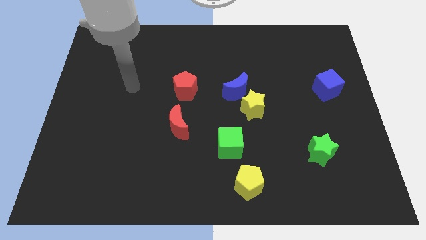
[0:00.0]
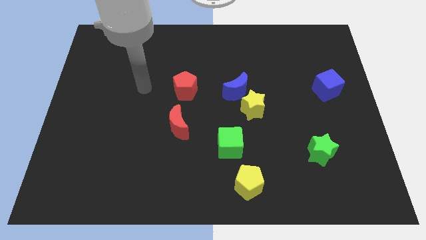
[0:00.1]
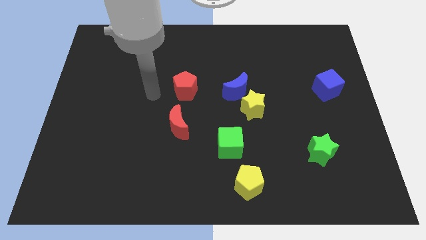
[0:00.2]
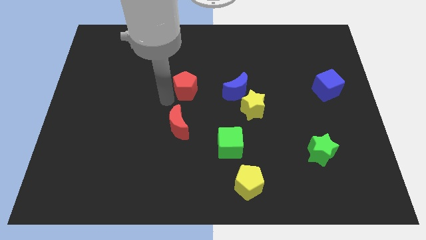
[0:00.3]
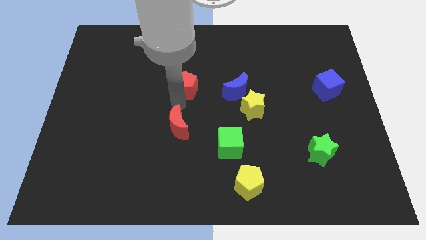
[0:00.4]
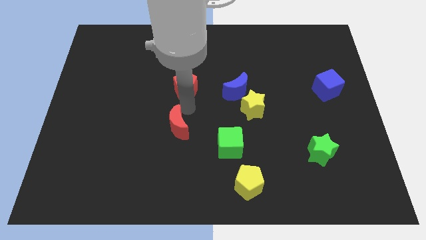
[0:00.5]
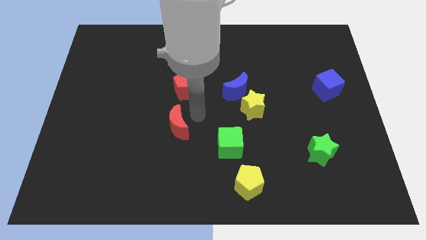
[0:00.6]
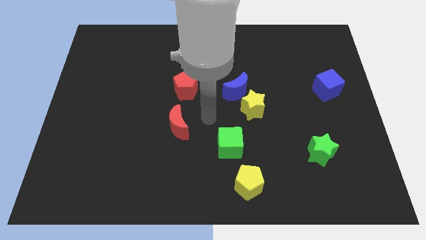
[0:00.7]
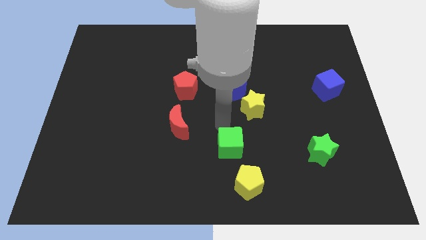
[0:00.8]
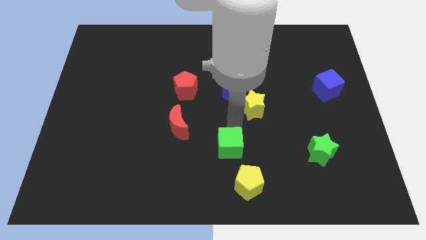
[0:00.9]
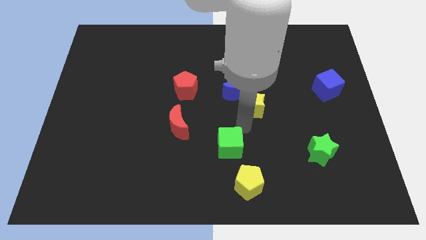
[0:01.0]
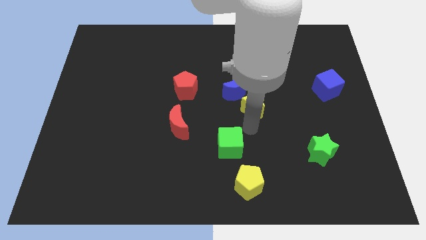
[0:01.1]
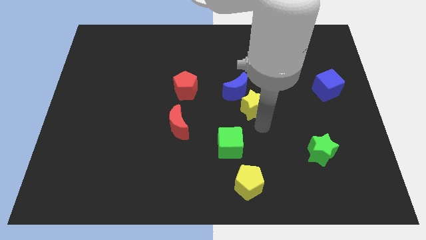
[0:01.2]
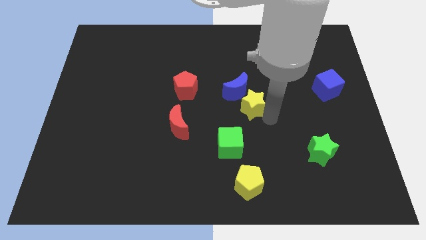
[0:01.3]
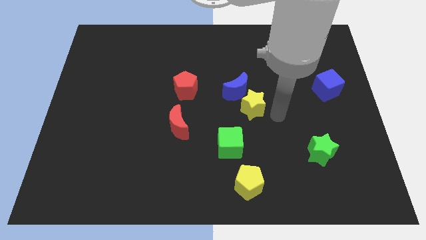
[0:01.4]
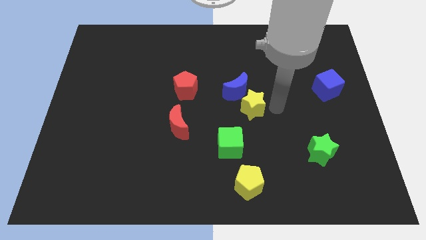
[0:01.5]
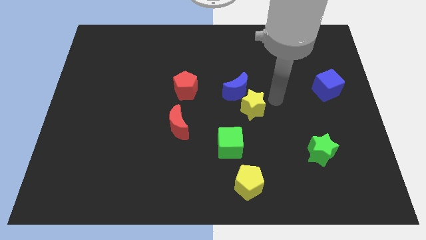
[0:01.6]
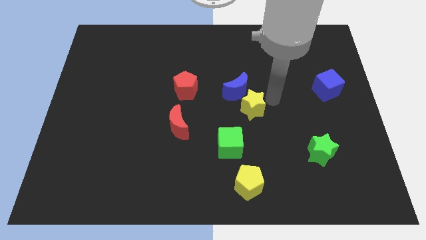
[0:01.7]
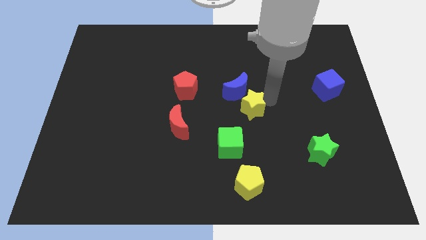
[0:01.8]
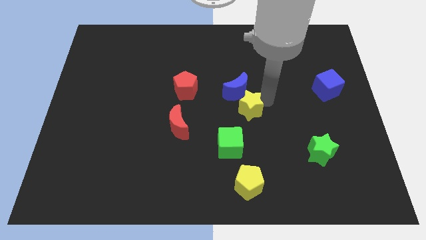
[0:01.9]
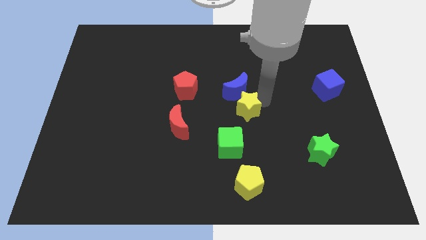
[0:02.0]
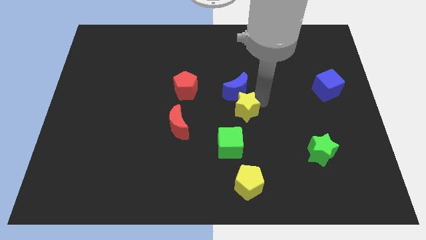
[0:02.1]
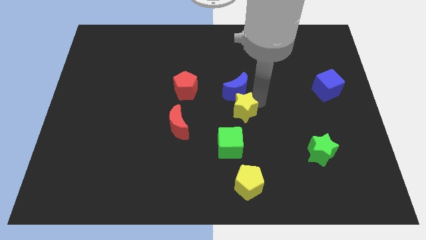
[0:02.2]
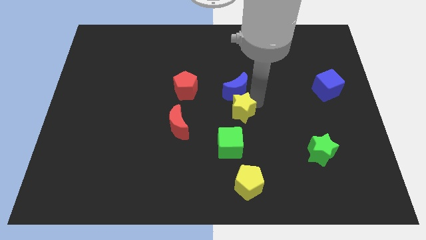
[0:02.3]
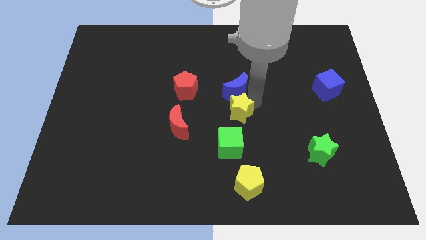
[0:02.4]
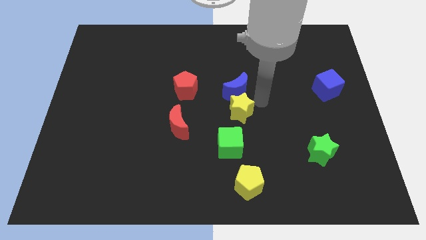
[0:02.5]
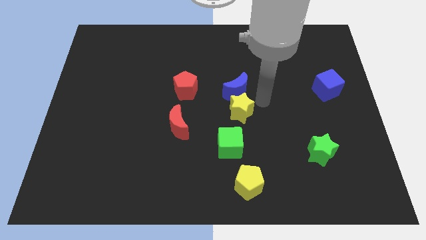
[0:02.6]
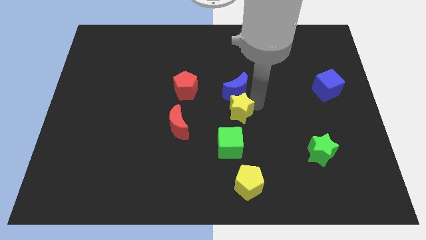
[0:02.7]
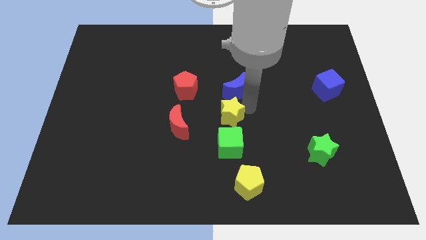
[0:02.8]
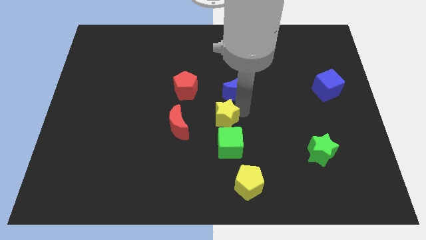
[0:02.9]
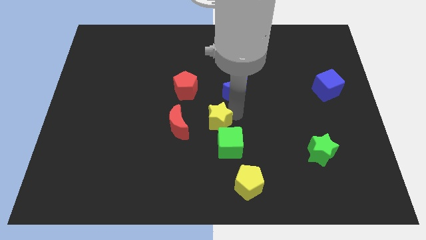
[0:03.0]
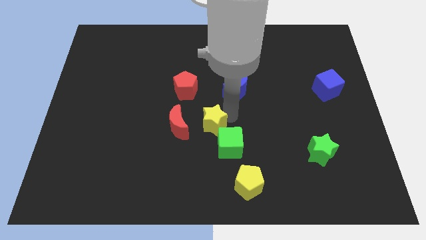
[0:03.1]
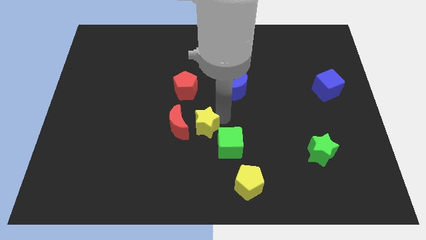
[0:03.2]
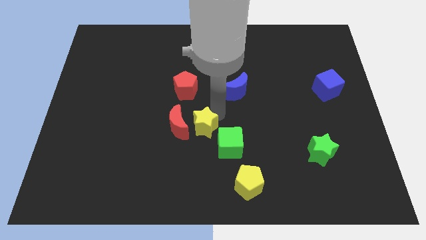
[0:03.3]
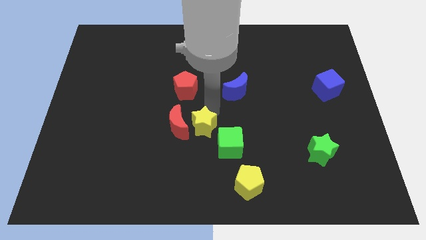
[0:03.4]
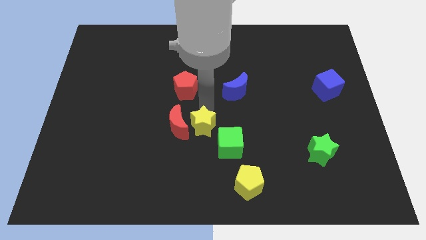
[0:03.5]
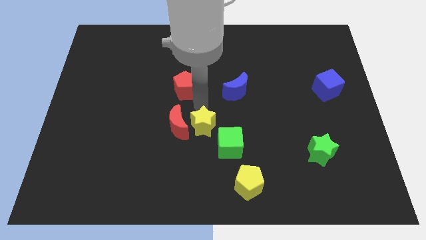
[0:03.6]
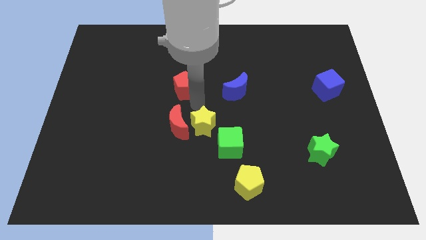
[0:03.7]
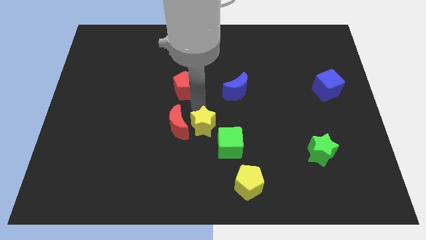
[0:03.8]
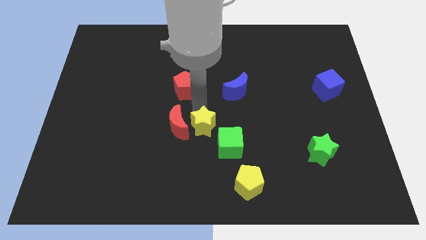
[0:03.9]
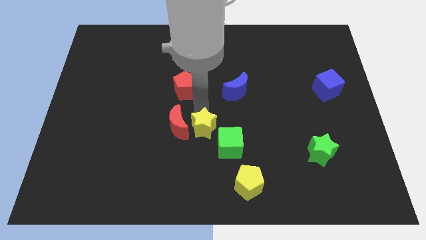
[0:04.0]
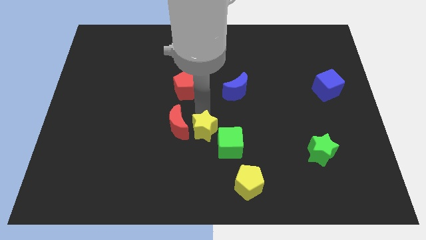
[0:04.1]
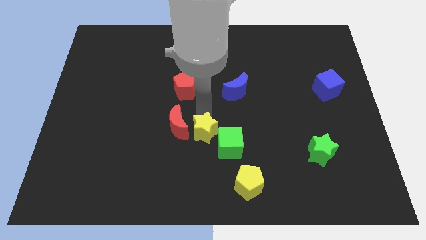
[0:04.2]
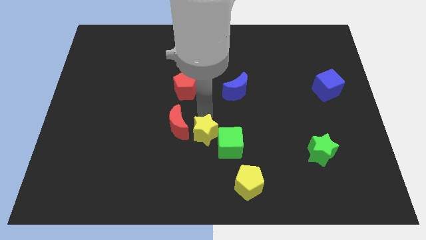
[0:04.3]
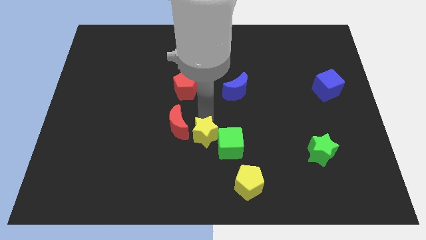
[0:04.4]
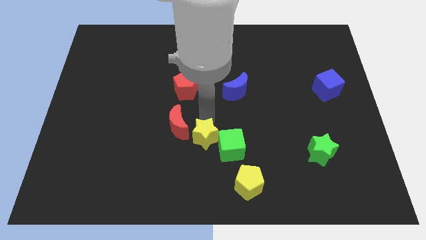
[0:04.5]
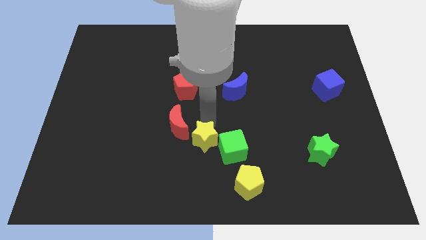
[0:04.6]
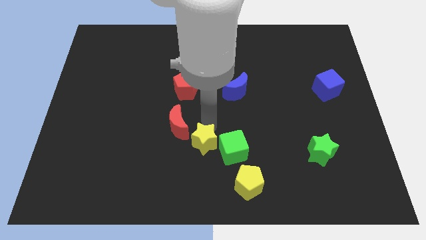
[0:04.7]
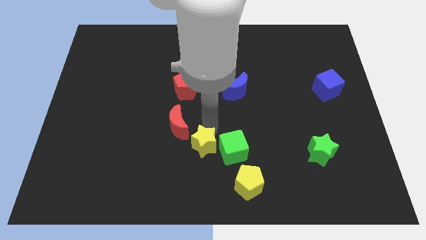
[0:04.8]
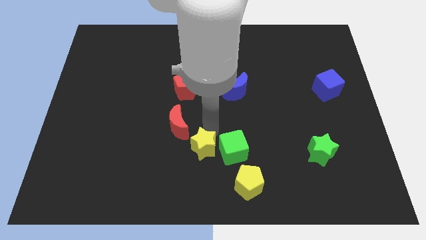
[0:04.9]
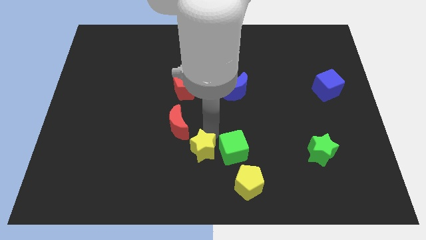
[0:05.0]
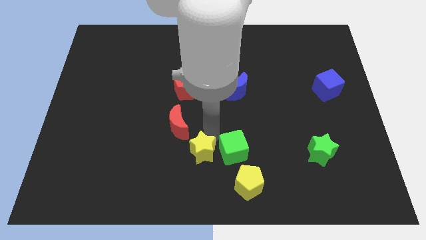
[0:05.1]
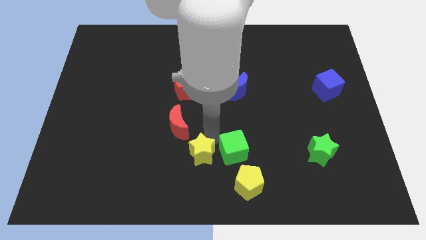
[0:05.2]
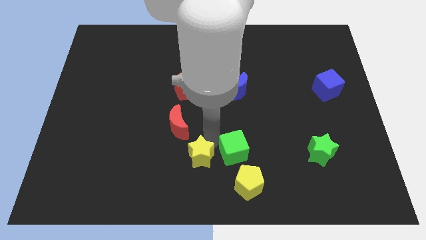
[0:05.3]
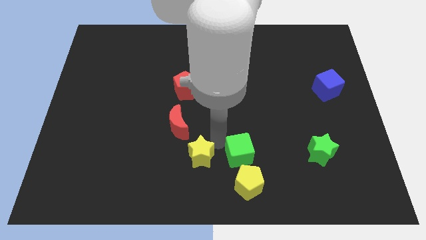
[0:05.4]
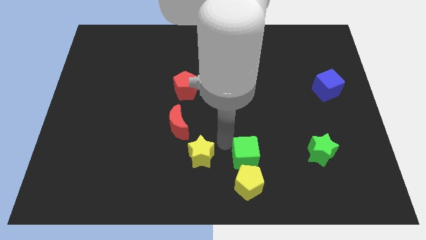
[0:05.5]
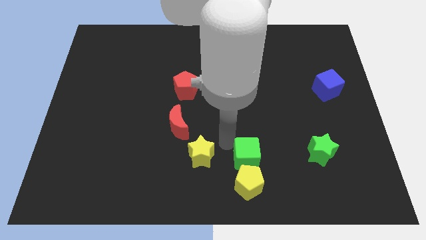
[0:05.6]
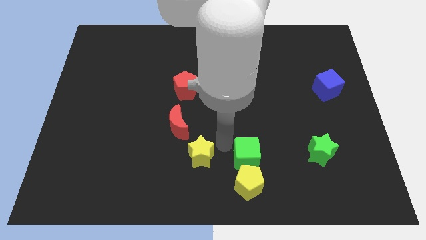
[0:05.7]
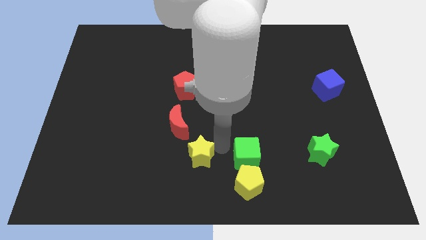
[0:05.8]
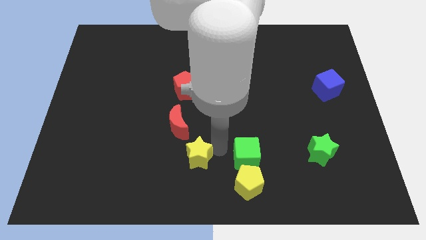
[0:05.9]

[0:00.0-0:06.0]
push the yellow star to the bottom side of the red moon

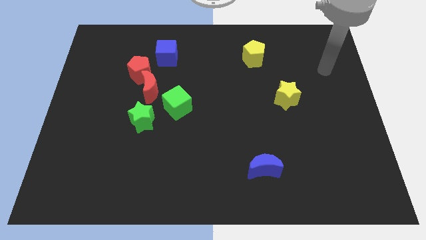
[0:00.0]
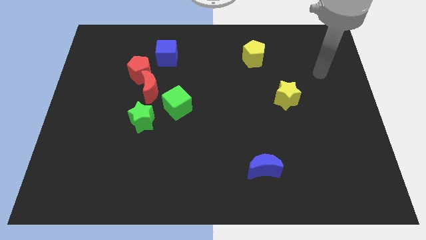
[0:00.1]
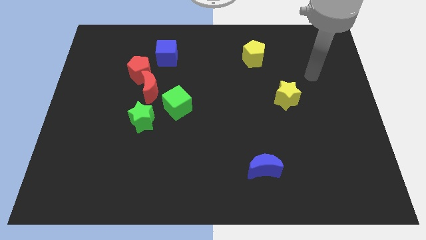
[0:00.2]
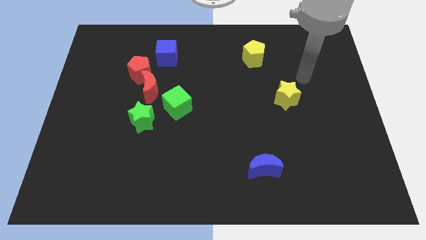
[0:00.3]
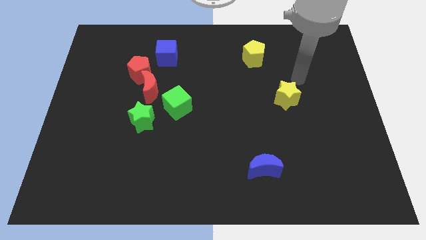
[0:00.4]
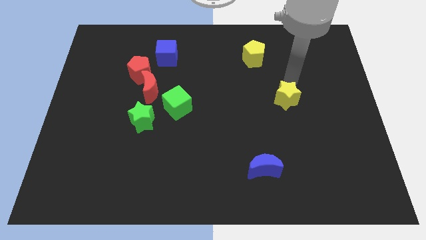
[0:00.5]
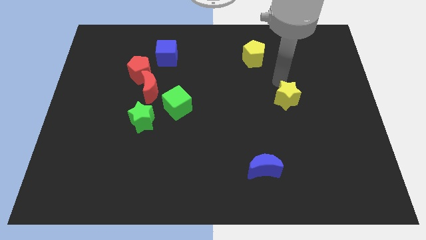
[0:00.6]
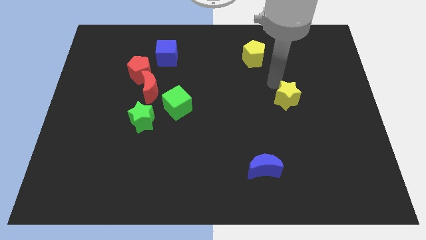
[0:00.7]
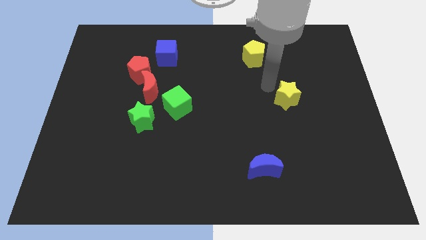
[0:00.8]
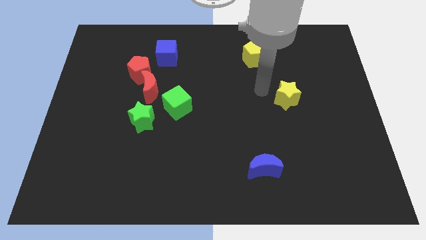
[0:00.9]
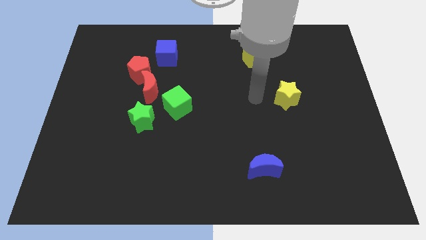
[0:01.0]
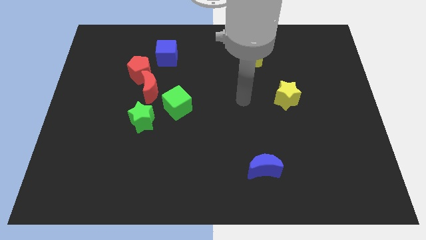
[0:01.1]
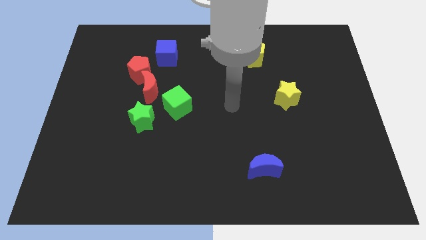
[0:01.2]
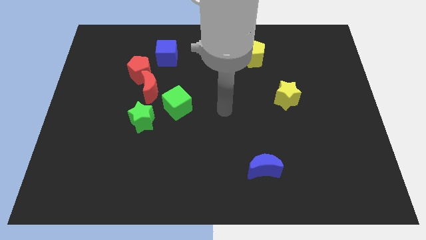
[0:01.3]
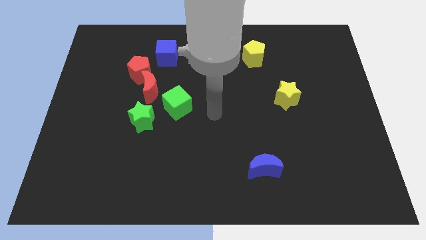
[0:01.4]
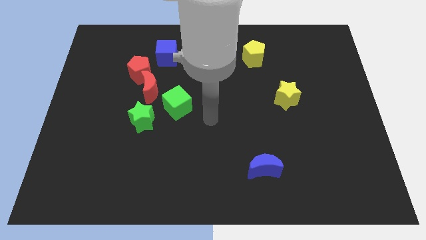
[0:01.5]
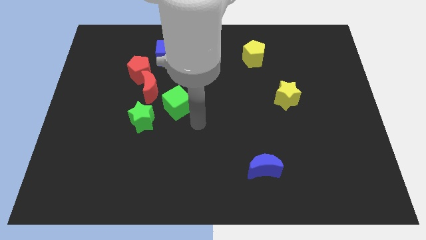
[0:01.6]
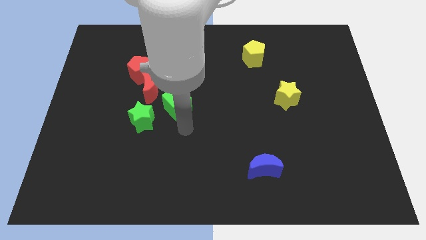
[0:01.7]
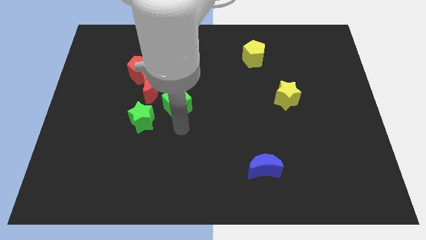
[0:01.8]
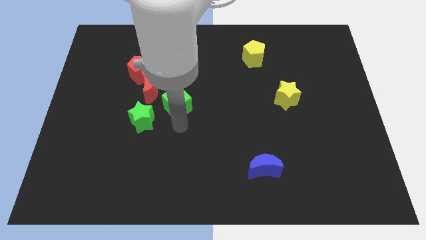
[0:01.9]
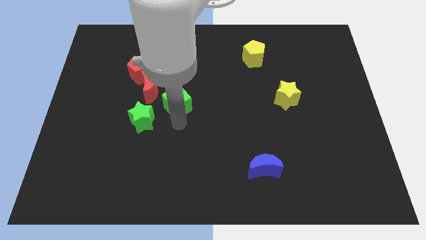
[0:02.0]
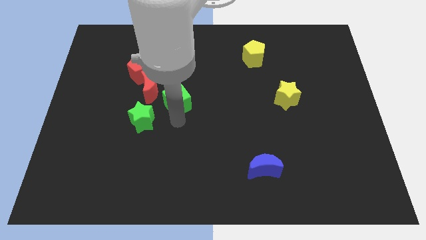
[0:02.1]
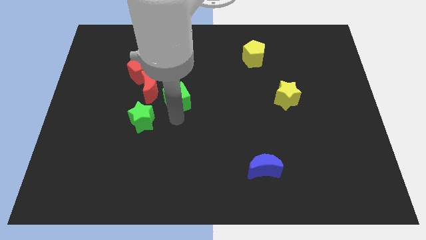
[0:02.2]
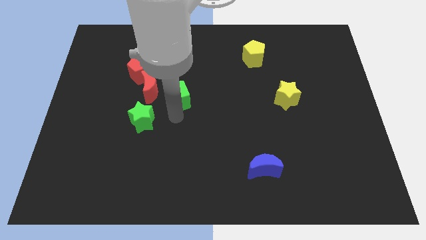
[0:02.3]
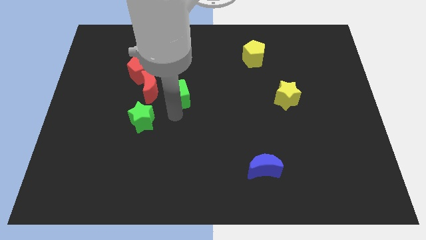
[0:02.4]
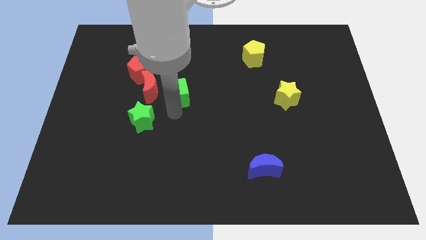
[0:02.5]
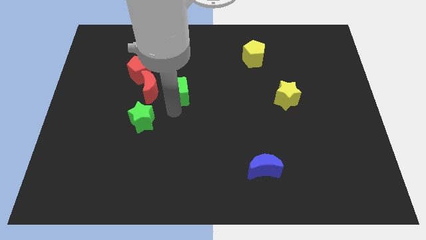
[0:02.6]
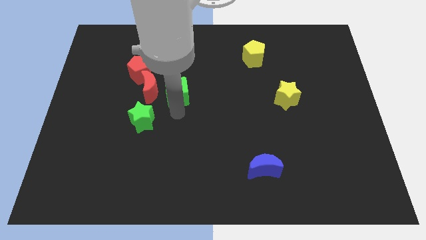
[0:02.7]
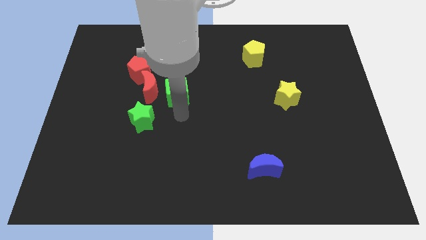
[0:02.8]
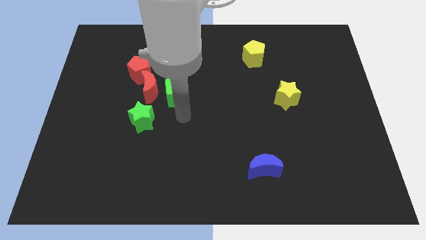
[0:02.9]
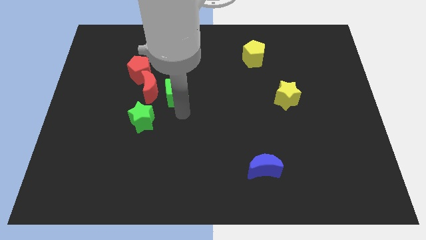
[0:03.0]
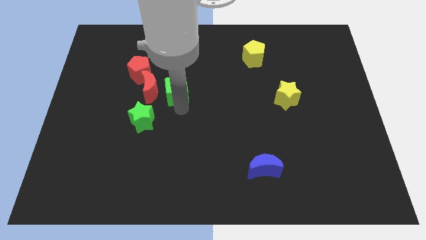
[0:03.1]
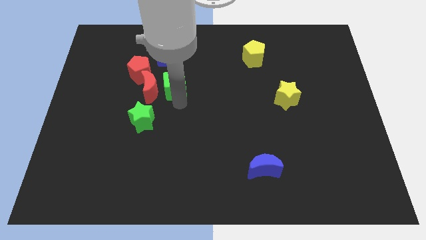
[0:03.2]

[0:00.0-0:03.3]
put the green cube to the top right of the red moon
